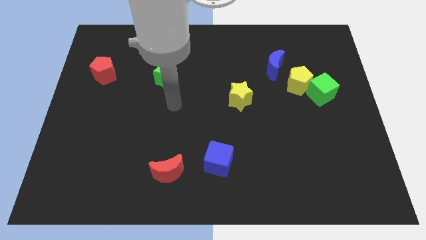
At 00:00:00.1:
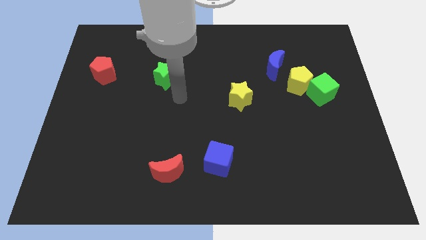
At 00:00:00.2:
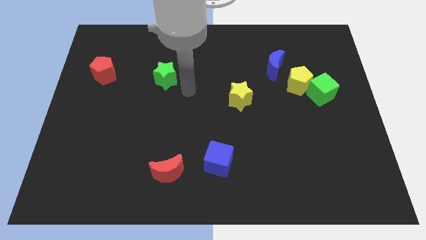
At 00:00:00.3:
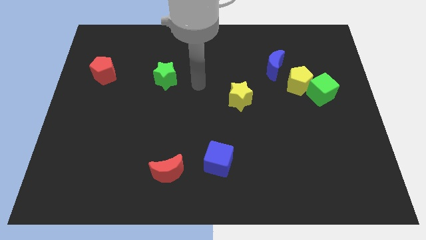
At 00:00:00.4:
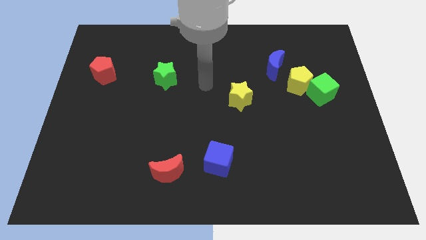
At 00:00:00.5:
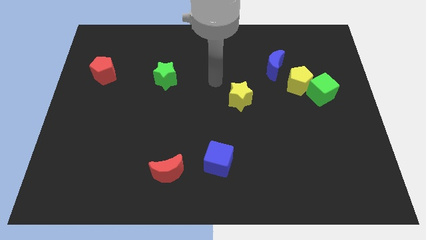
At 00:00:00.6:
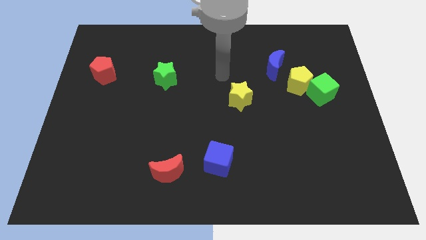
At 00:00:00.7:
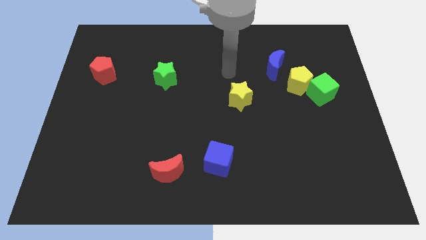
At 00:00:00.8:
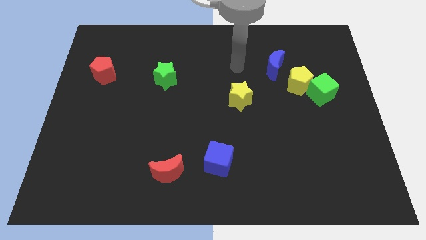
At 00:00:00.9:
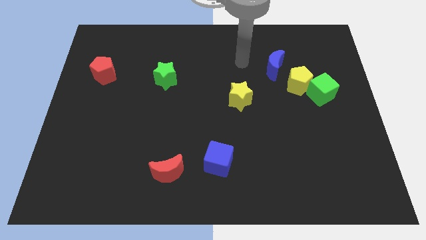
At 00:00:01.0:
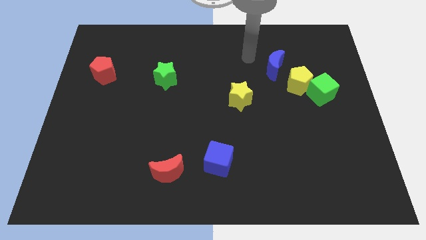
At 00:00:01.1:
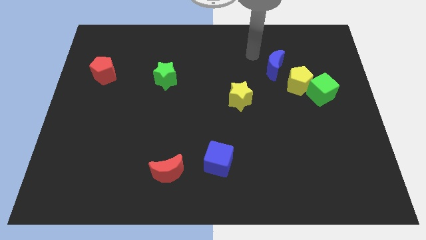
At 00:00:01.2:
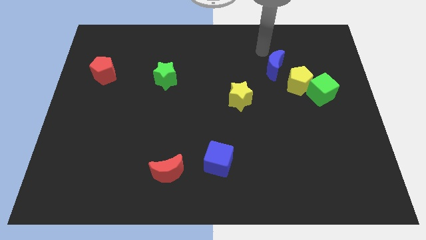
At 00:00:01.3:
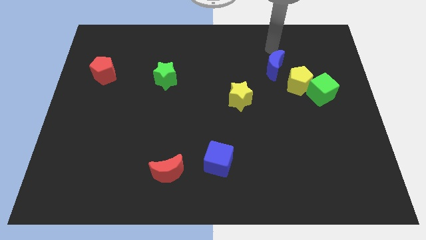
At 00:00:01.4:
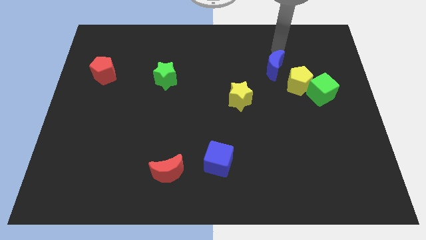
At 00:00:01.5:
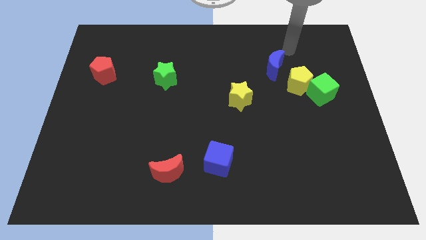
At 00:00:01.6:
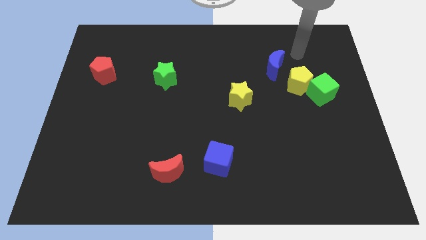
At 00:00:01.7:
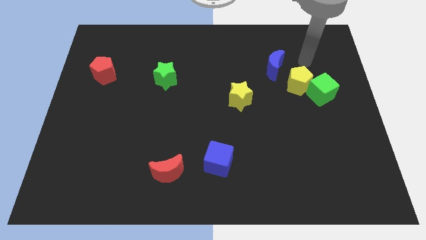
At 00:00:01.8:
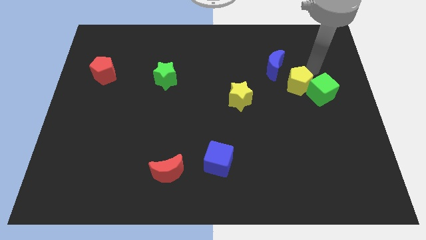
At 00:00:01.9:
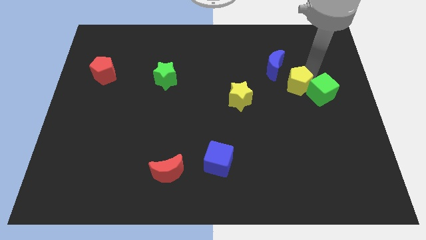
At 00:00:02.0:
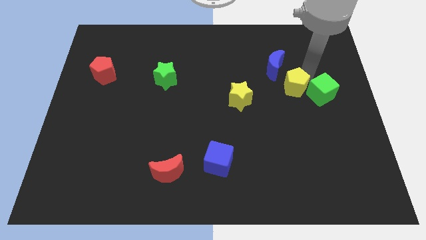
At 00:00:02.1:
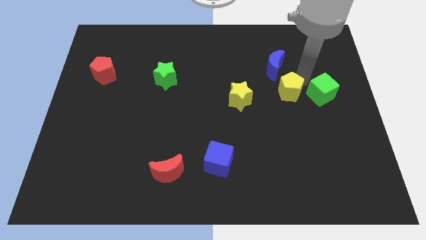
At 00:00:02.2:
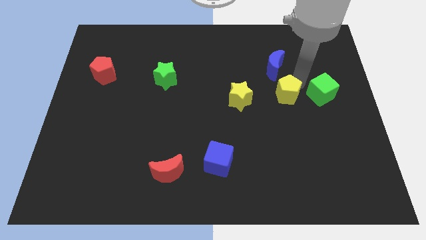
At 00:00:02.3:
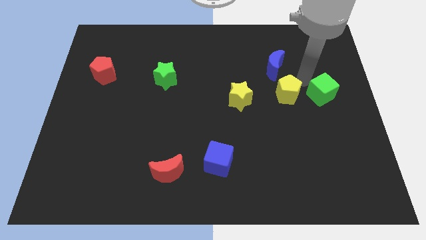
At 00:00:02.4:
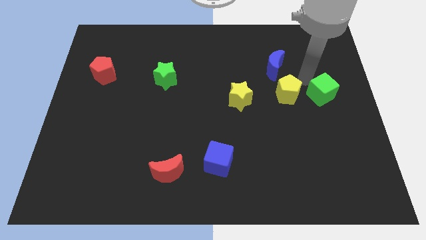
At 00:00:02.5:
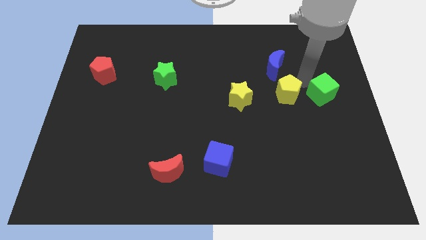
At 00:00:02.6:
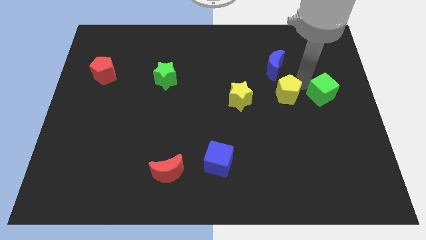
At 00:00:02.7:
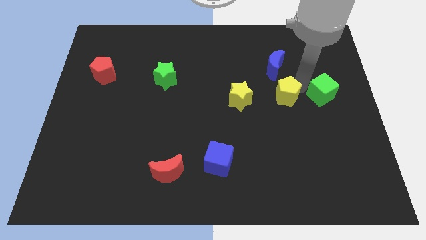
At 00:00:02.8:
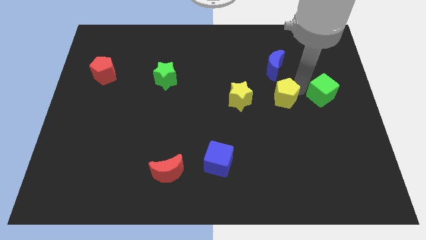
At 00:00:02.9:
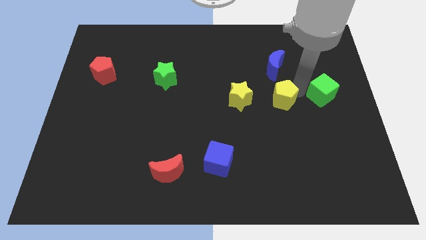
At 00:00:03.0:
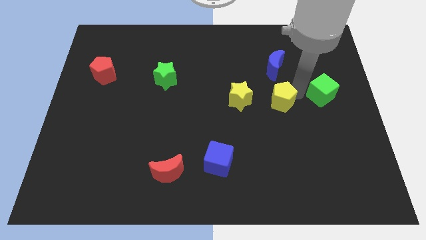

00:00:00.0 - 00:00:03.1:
slightly slide the yellow pentagon diagonally downwards and to the left

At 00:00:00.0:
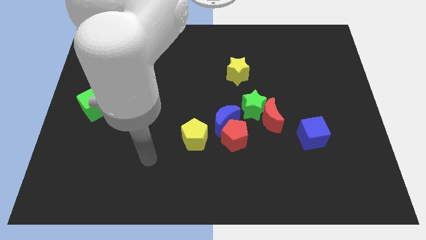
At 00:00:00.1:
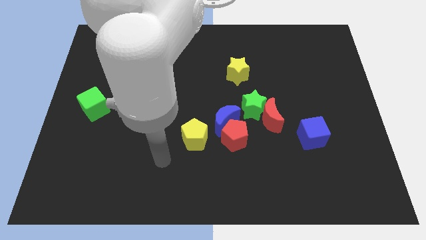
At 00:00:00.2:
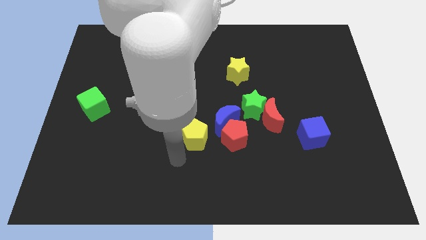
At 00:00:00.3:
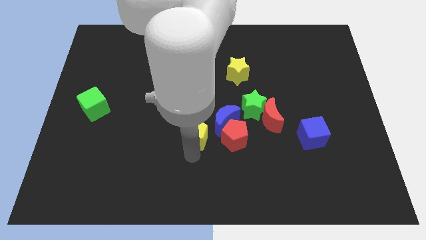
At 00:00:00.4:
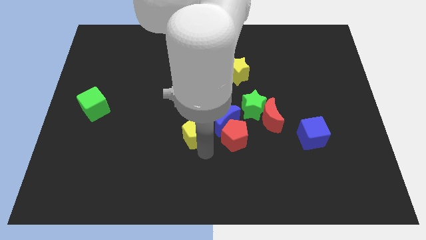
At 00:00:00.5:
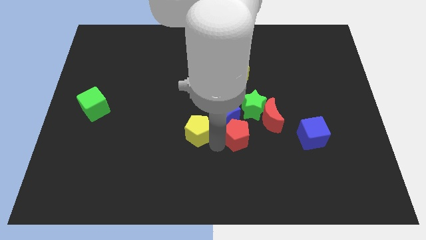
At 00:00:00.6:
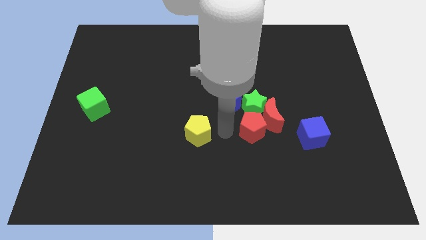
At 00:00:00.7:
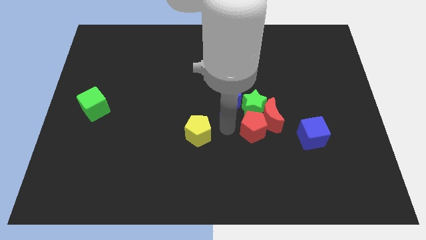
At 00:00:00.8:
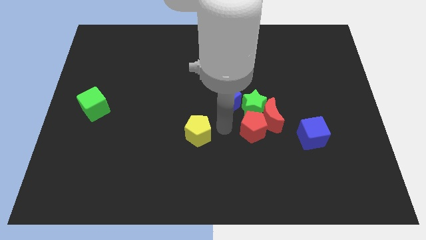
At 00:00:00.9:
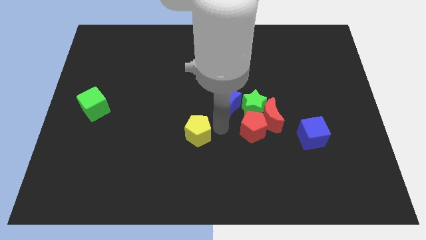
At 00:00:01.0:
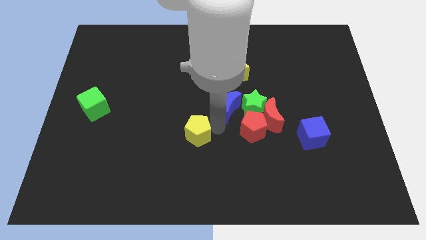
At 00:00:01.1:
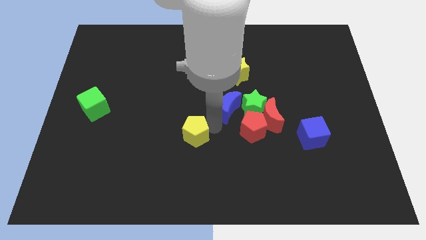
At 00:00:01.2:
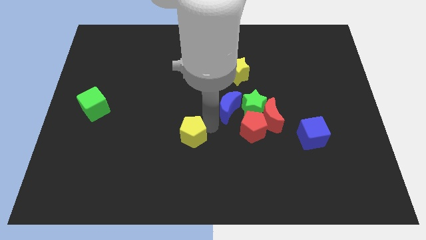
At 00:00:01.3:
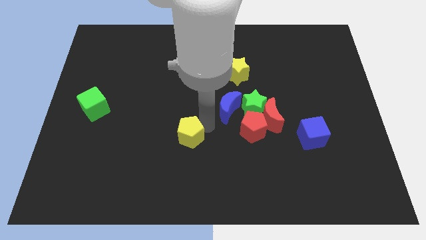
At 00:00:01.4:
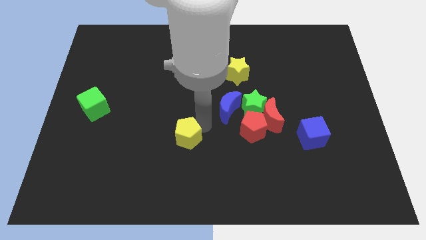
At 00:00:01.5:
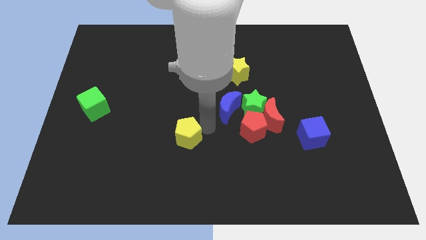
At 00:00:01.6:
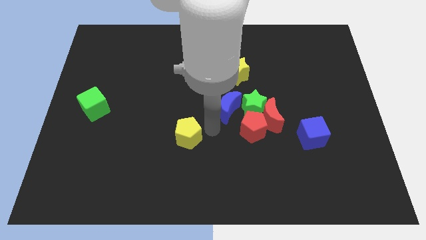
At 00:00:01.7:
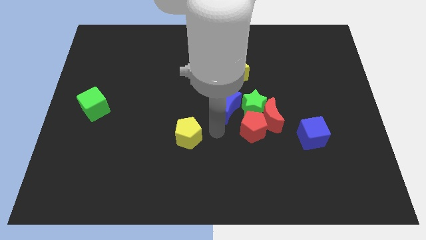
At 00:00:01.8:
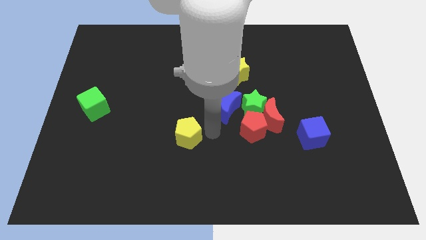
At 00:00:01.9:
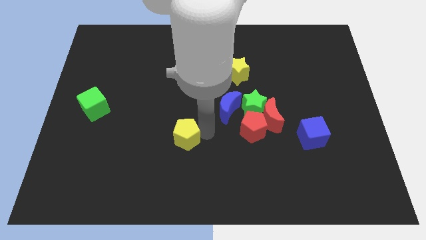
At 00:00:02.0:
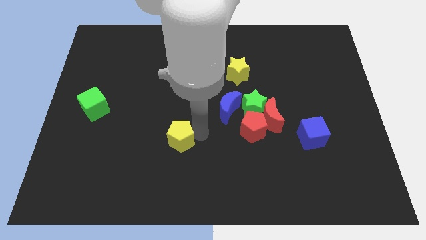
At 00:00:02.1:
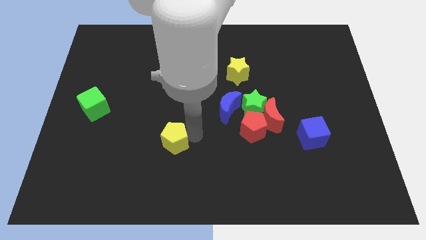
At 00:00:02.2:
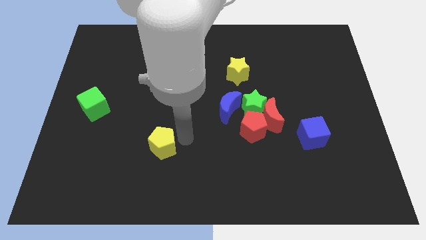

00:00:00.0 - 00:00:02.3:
push the yellow pentagon slightly to the left

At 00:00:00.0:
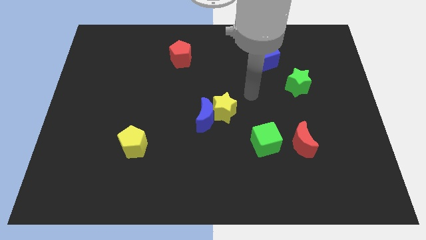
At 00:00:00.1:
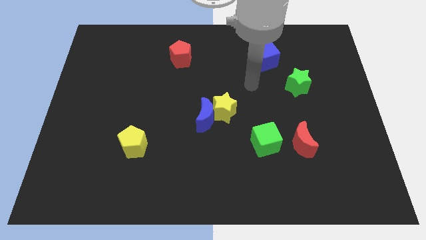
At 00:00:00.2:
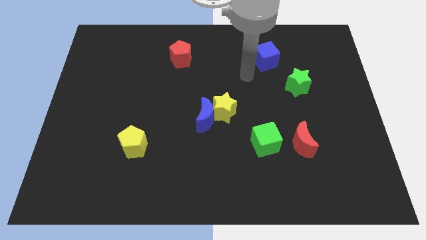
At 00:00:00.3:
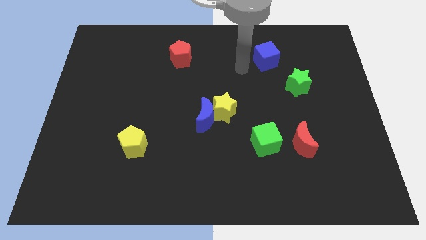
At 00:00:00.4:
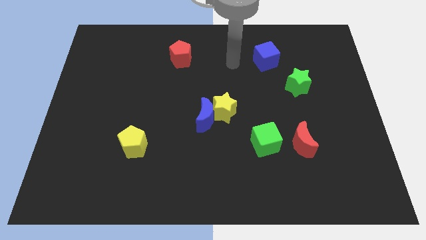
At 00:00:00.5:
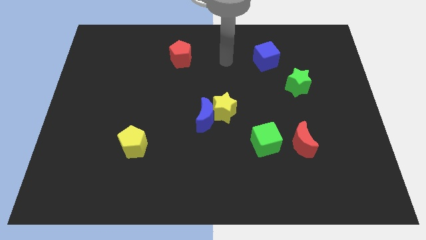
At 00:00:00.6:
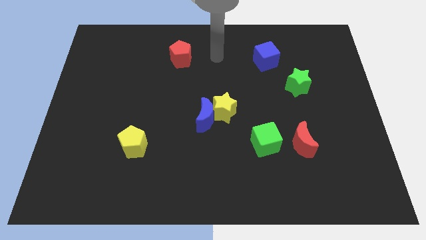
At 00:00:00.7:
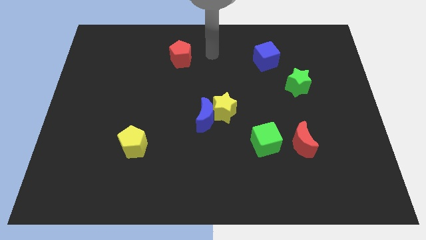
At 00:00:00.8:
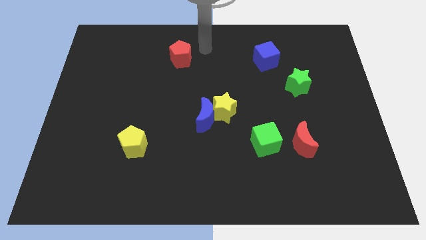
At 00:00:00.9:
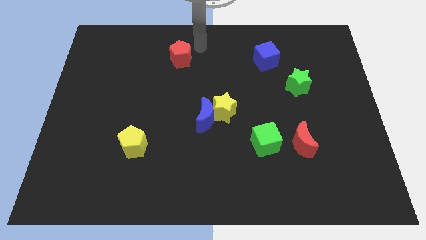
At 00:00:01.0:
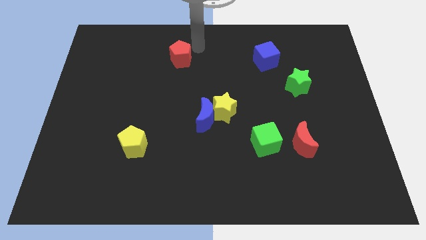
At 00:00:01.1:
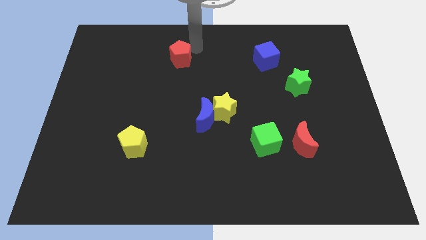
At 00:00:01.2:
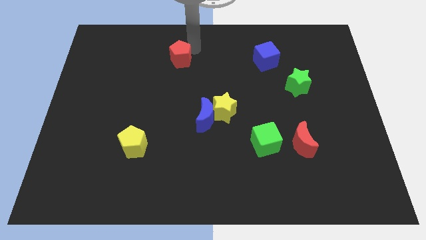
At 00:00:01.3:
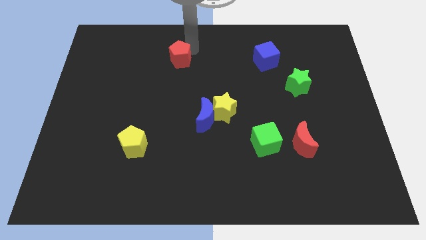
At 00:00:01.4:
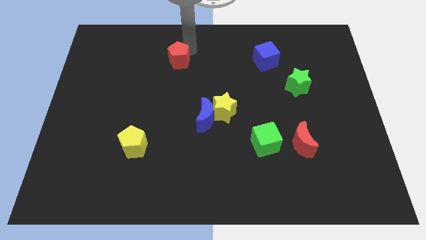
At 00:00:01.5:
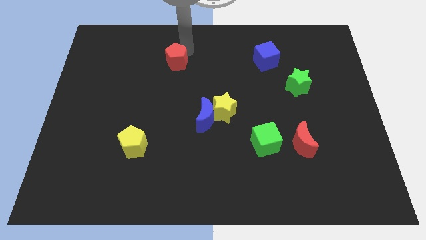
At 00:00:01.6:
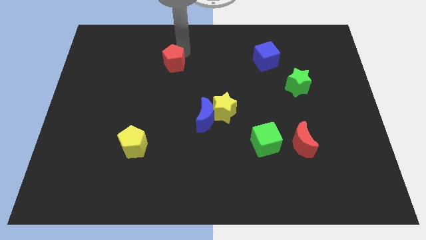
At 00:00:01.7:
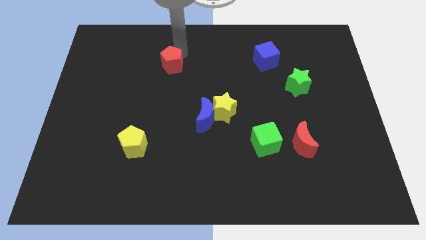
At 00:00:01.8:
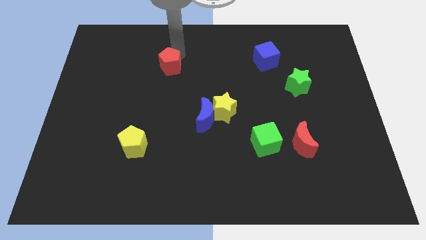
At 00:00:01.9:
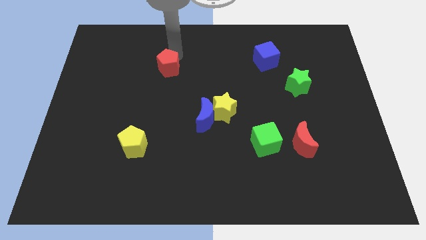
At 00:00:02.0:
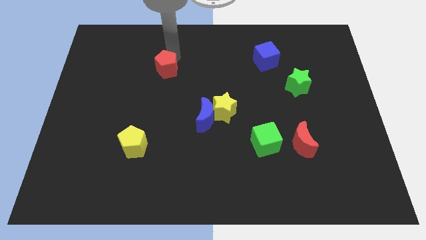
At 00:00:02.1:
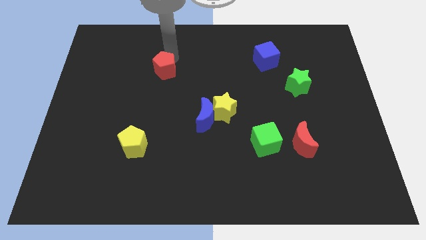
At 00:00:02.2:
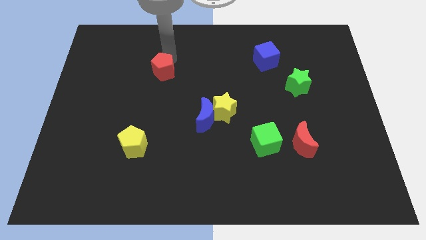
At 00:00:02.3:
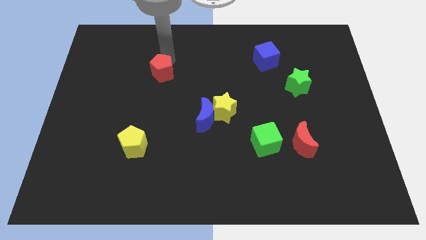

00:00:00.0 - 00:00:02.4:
push the red pentagon diagonally down and to the left a little
